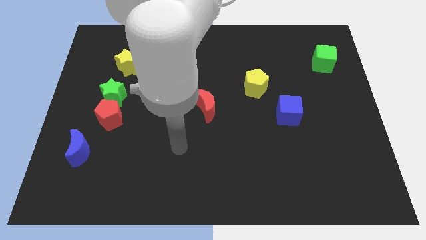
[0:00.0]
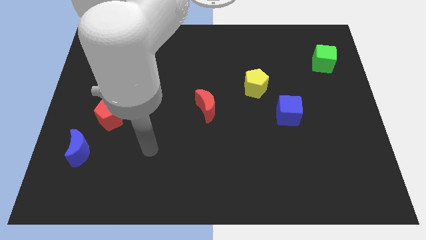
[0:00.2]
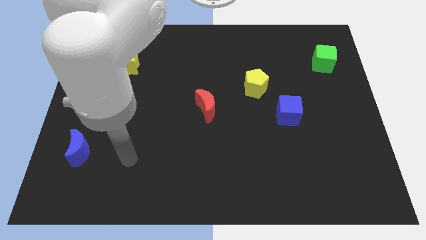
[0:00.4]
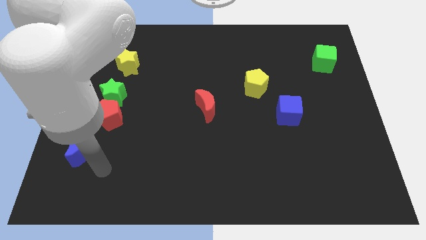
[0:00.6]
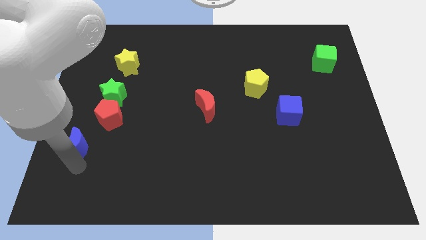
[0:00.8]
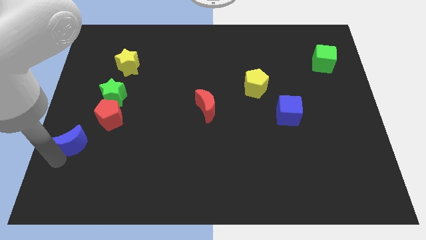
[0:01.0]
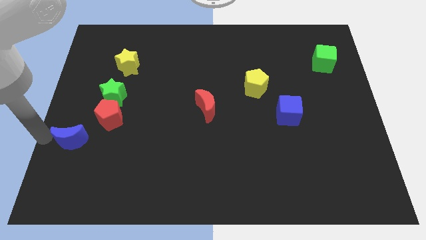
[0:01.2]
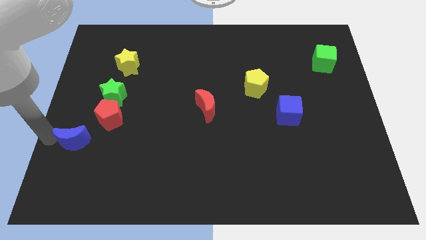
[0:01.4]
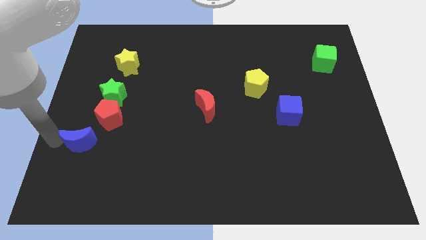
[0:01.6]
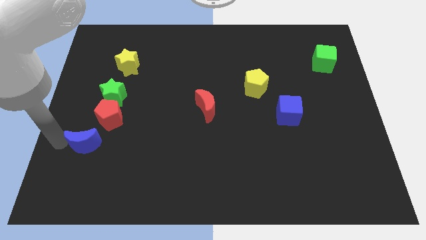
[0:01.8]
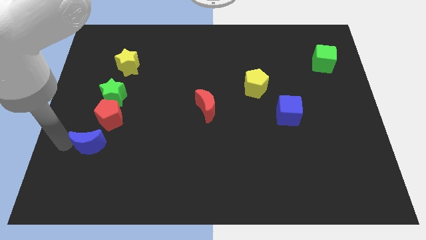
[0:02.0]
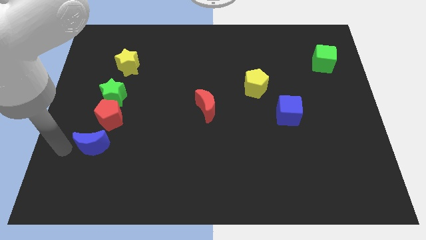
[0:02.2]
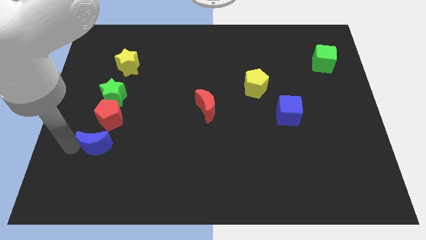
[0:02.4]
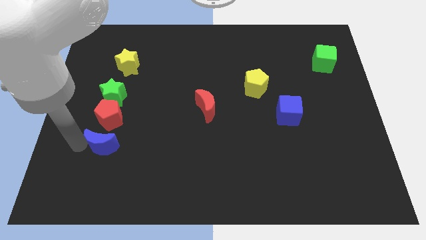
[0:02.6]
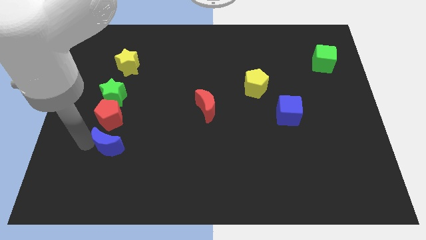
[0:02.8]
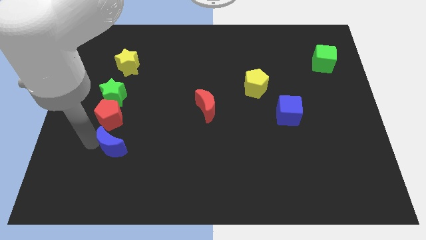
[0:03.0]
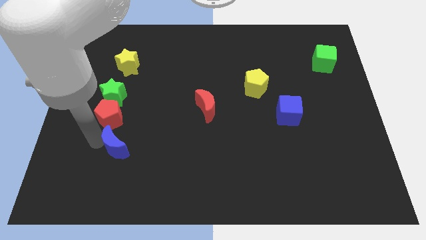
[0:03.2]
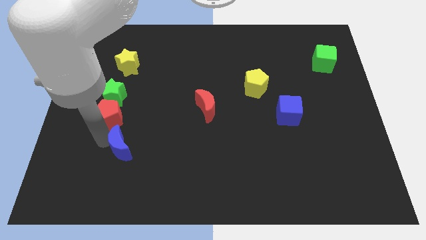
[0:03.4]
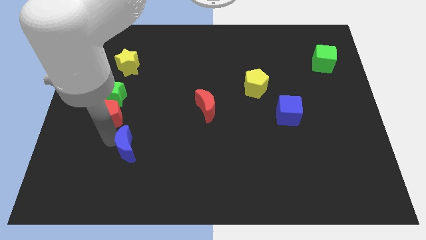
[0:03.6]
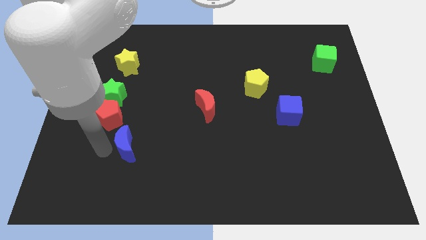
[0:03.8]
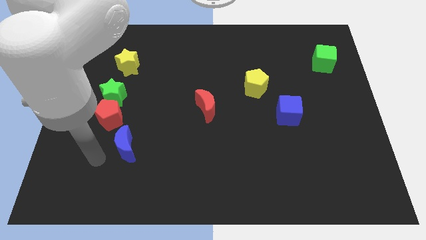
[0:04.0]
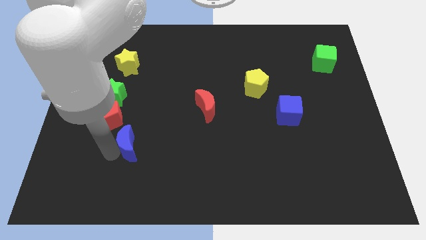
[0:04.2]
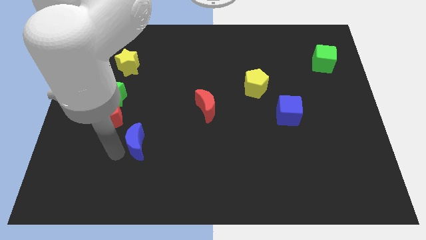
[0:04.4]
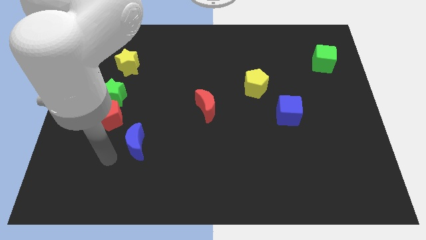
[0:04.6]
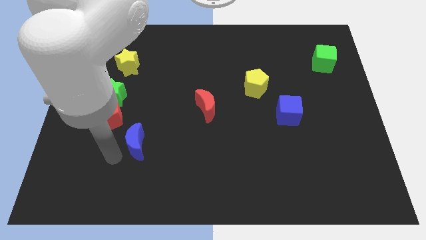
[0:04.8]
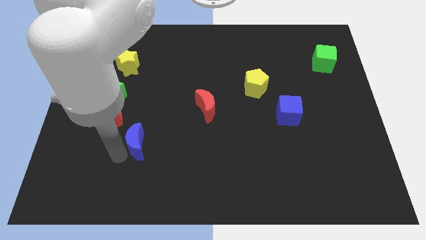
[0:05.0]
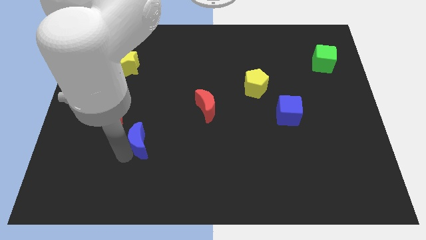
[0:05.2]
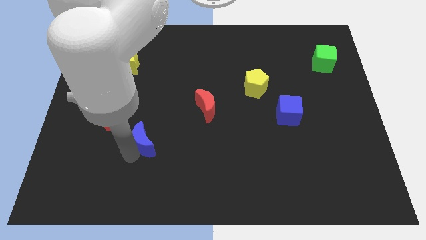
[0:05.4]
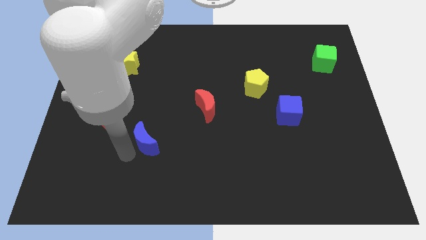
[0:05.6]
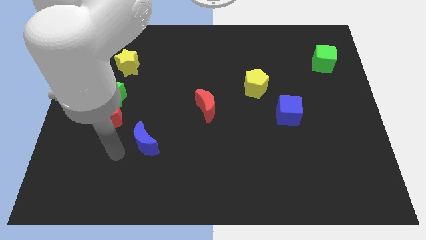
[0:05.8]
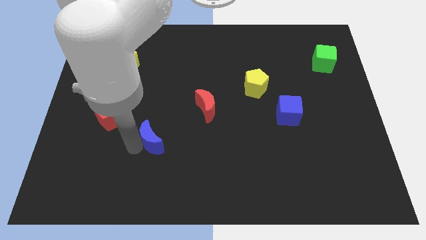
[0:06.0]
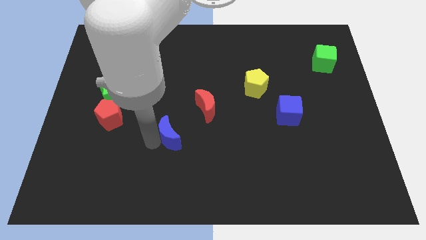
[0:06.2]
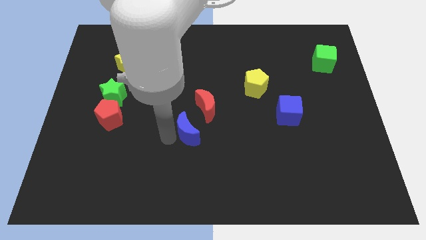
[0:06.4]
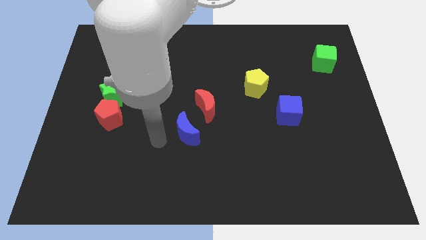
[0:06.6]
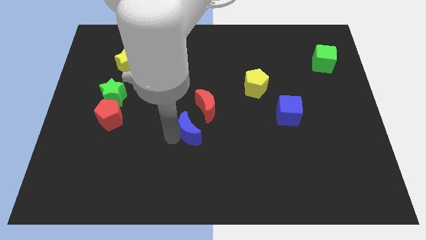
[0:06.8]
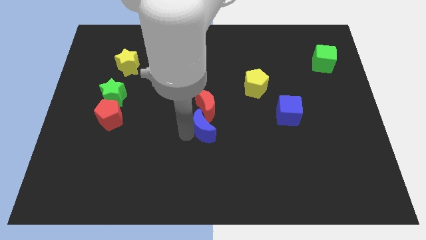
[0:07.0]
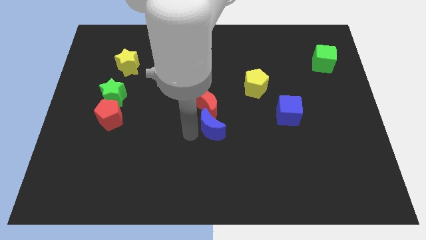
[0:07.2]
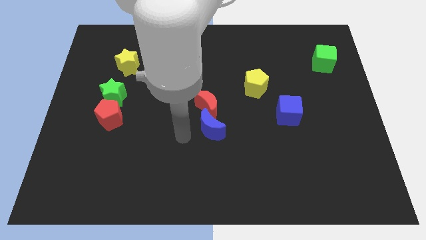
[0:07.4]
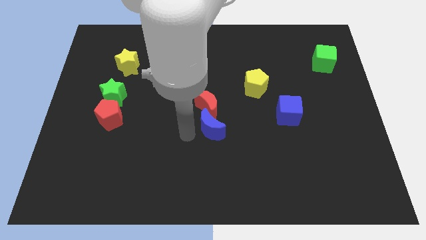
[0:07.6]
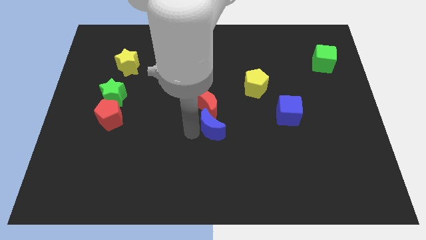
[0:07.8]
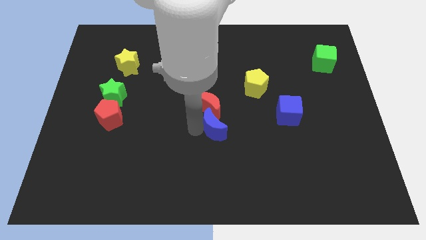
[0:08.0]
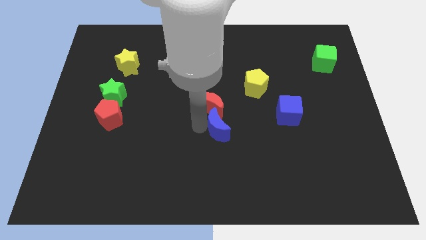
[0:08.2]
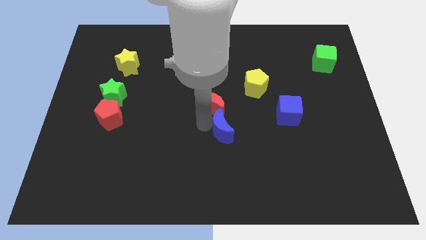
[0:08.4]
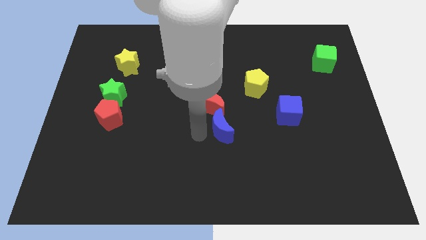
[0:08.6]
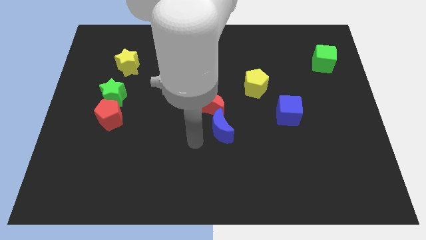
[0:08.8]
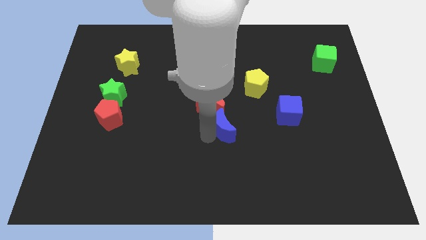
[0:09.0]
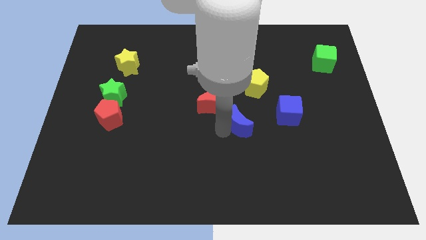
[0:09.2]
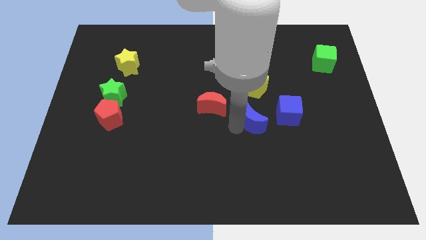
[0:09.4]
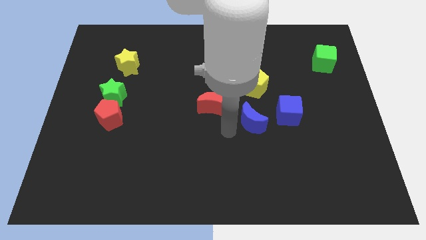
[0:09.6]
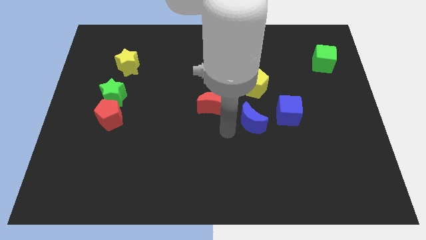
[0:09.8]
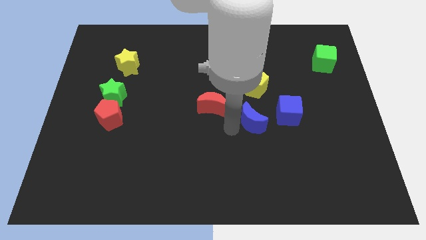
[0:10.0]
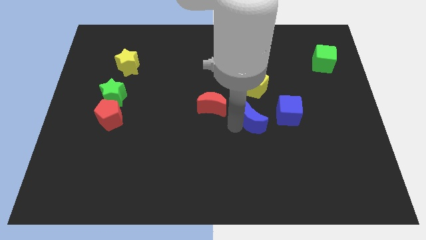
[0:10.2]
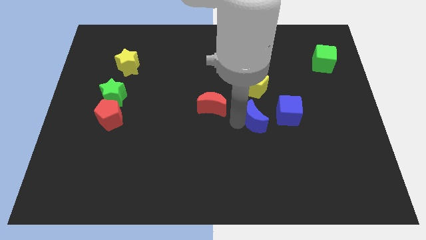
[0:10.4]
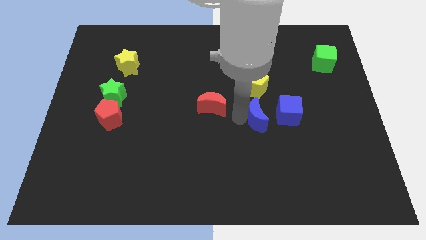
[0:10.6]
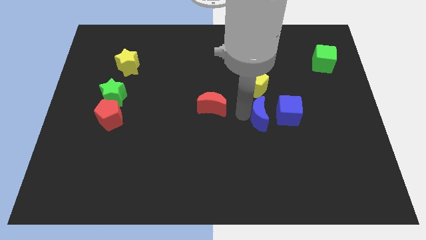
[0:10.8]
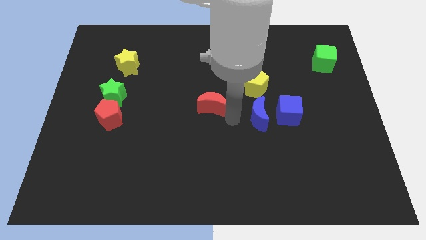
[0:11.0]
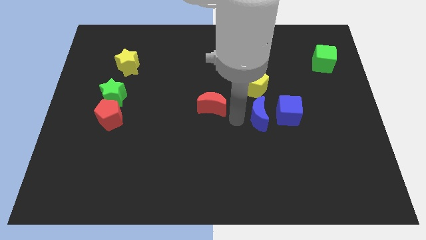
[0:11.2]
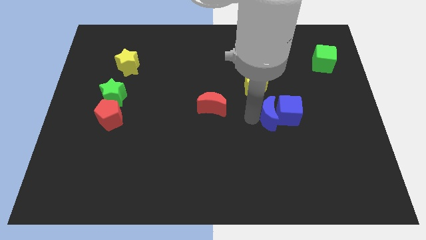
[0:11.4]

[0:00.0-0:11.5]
move the blue moon next to the blue cube

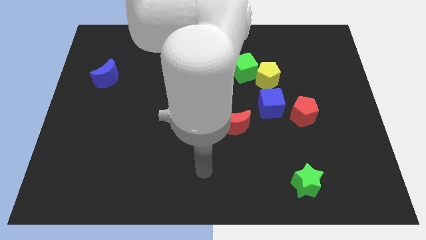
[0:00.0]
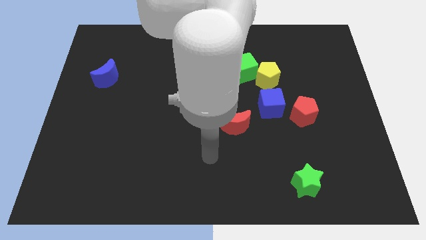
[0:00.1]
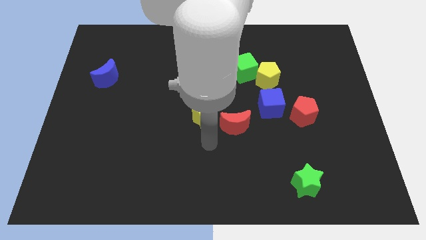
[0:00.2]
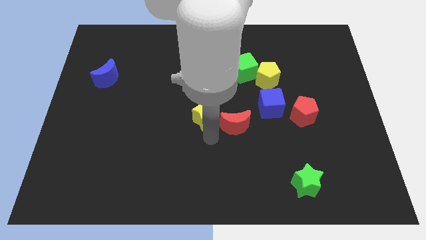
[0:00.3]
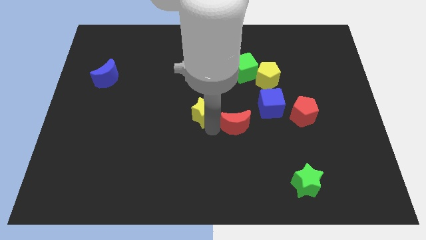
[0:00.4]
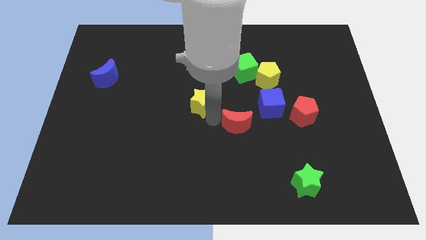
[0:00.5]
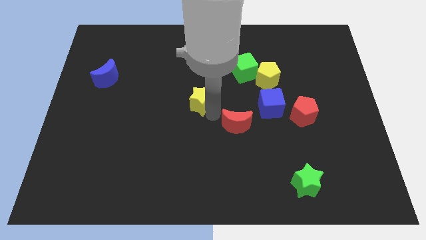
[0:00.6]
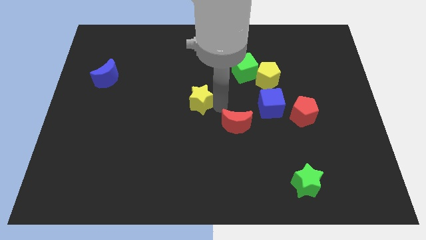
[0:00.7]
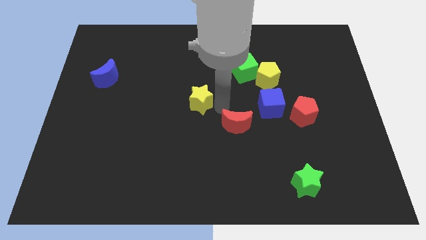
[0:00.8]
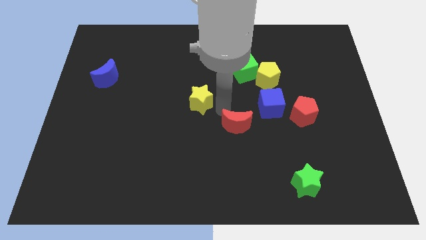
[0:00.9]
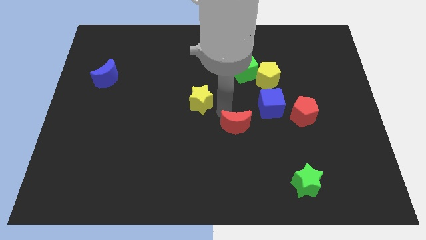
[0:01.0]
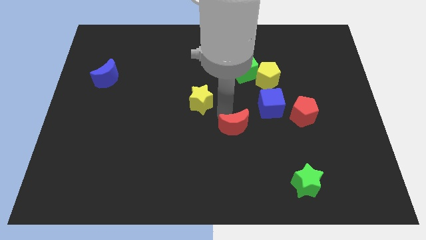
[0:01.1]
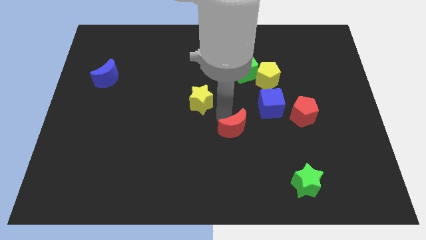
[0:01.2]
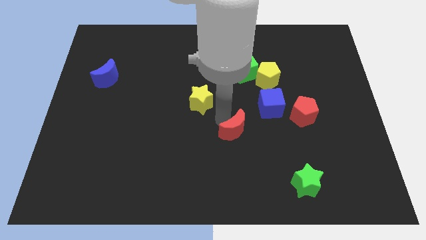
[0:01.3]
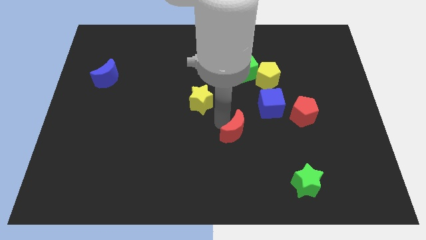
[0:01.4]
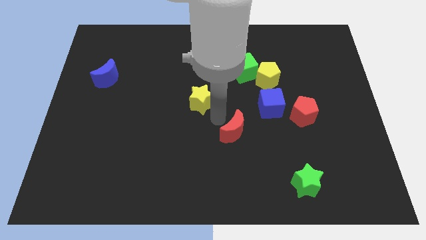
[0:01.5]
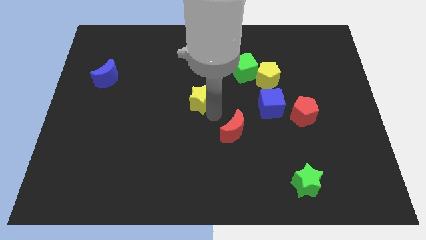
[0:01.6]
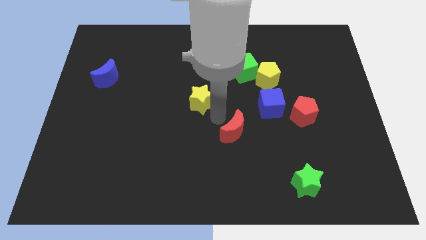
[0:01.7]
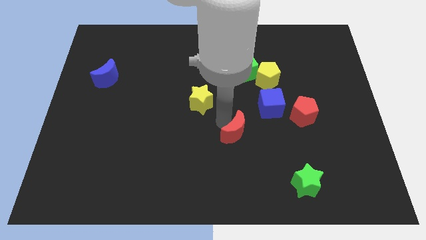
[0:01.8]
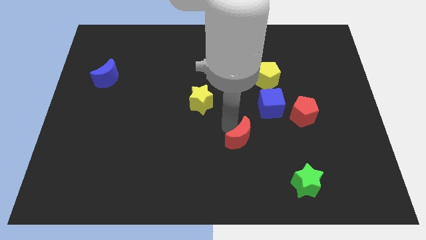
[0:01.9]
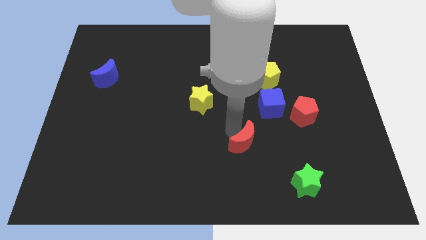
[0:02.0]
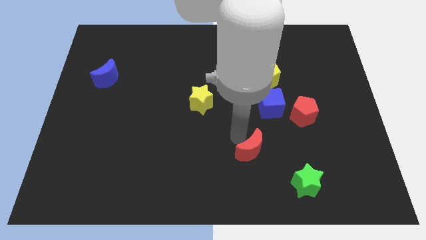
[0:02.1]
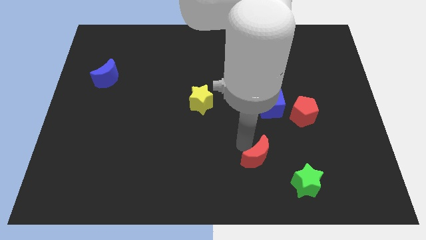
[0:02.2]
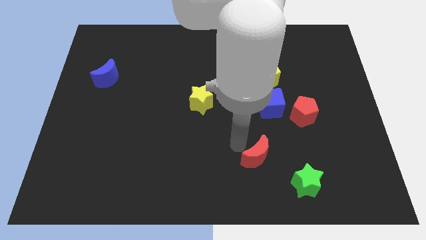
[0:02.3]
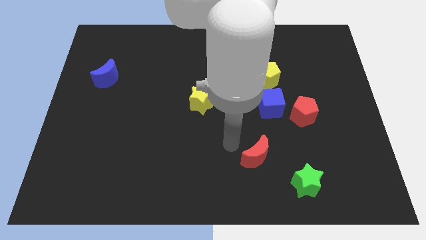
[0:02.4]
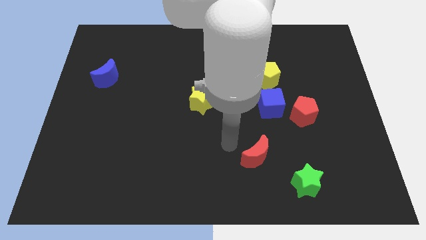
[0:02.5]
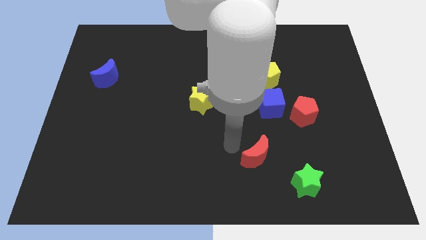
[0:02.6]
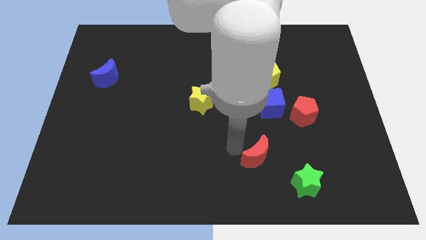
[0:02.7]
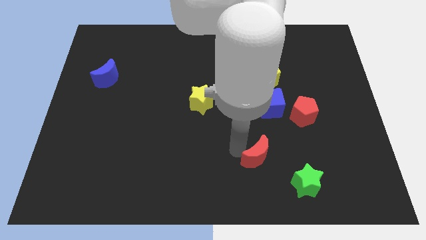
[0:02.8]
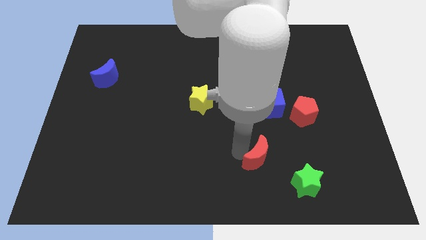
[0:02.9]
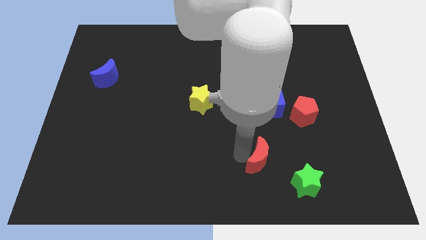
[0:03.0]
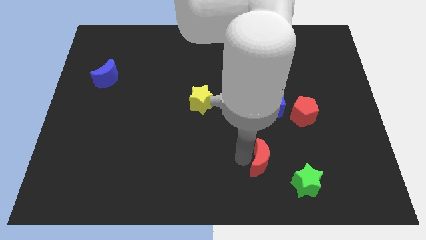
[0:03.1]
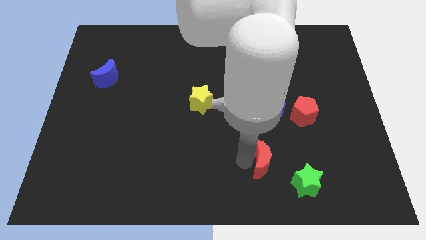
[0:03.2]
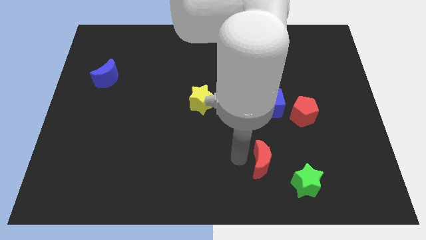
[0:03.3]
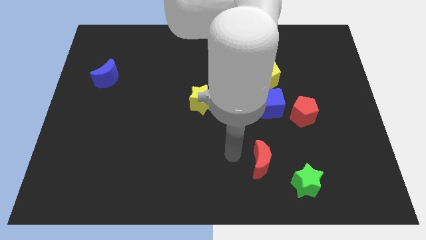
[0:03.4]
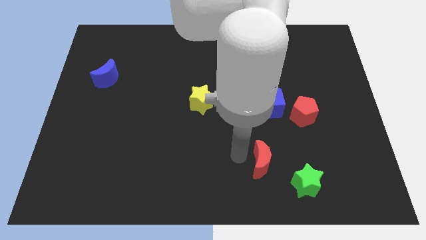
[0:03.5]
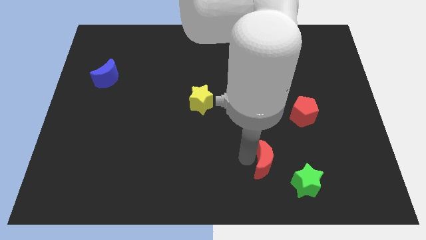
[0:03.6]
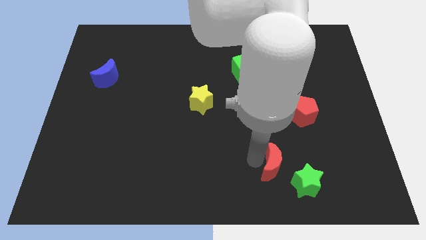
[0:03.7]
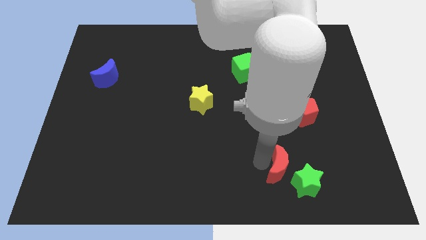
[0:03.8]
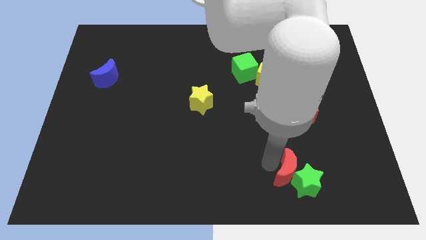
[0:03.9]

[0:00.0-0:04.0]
push the red moon close to the green star
